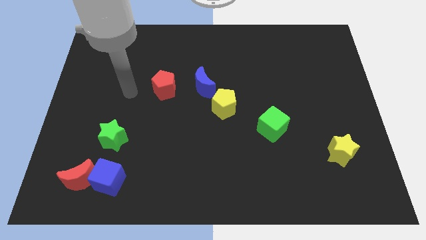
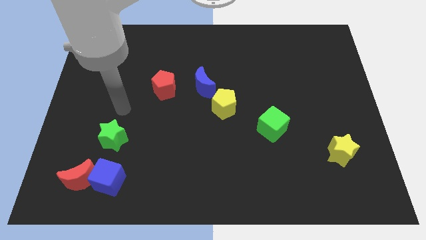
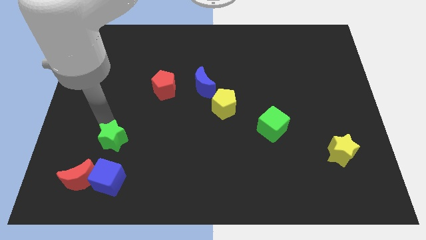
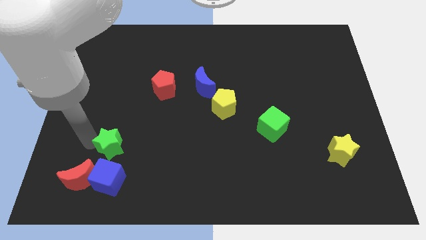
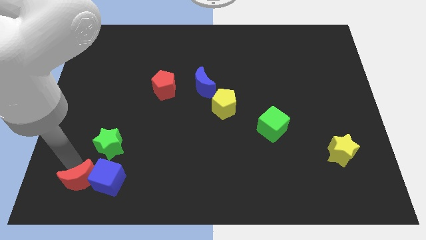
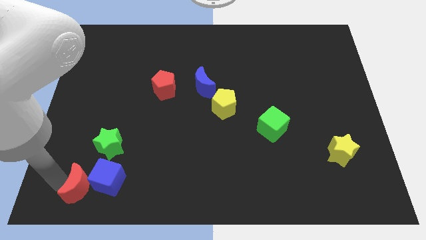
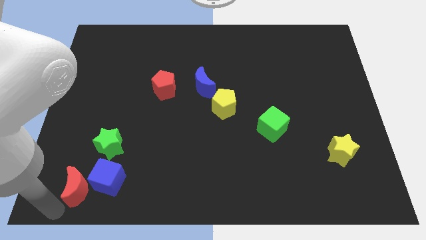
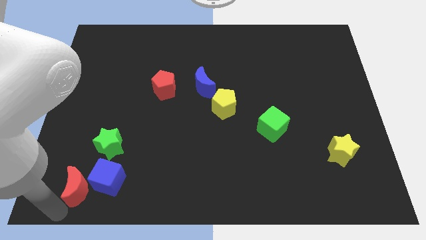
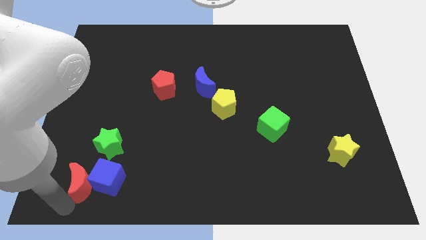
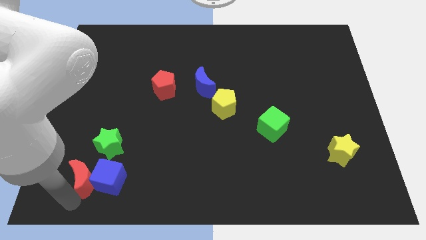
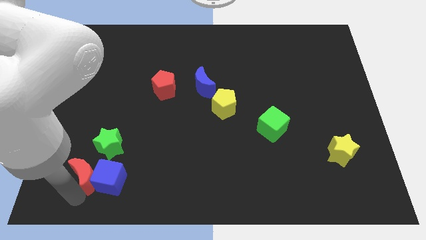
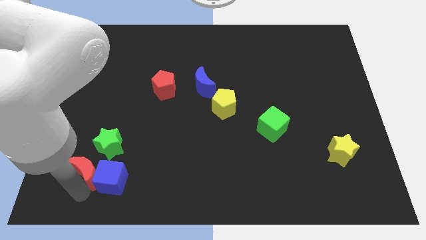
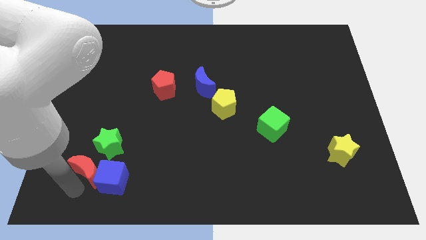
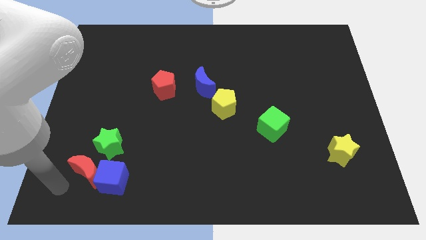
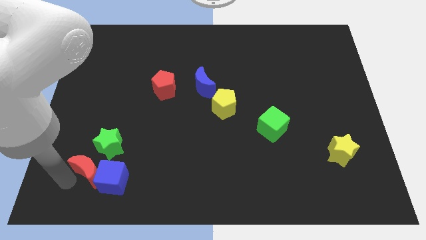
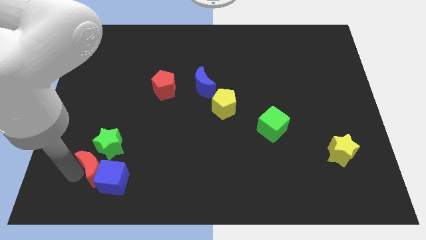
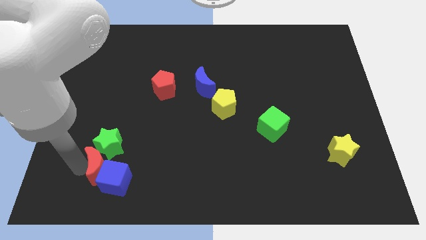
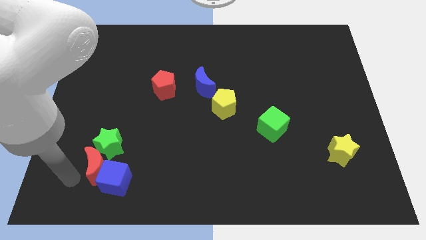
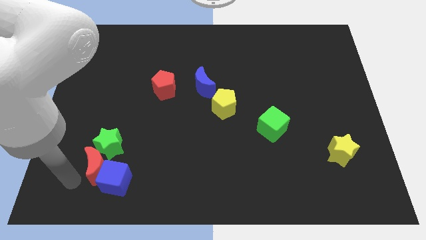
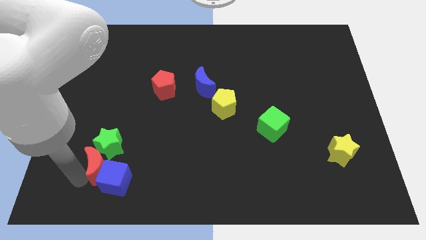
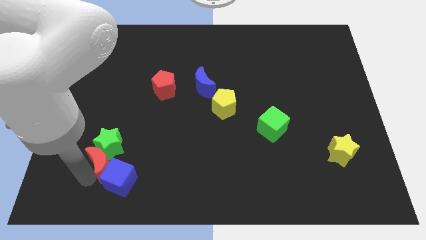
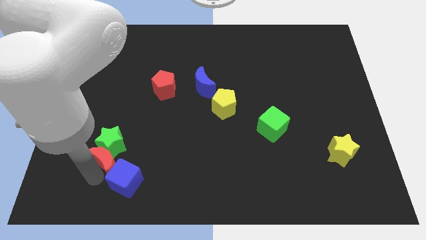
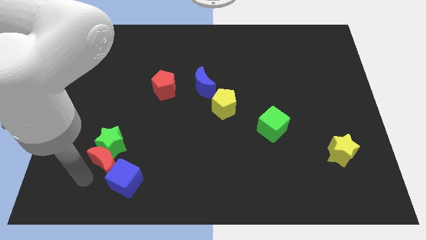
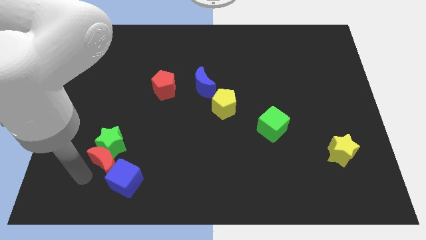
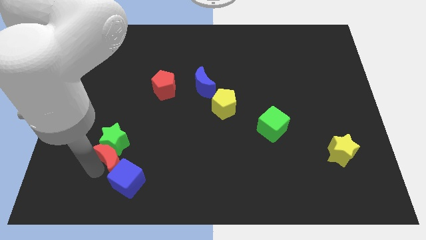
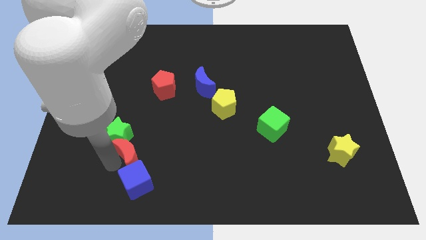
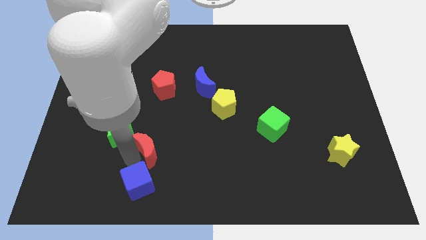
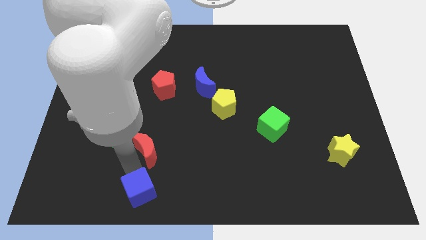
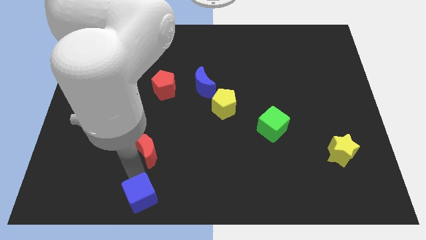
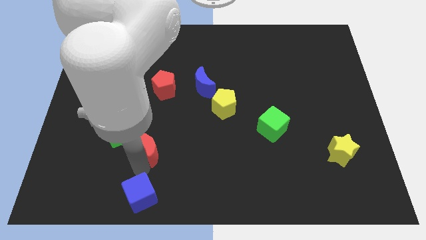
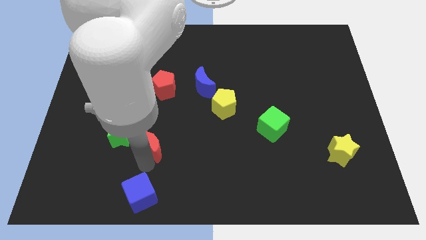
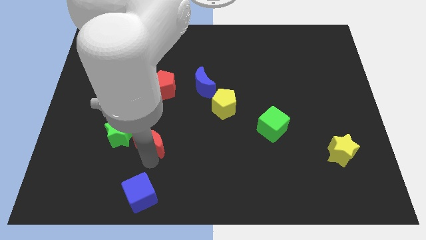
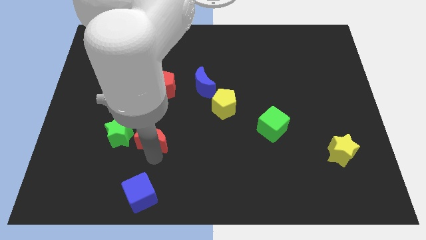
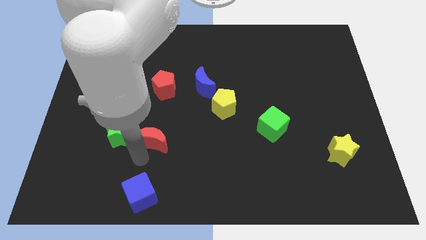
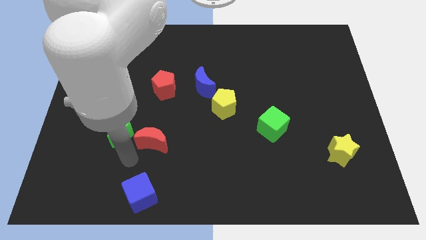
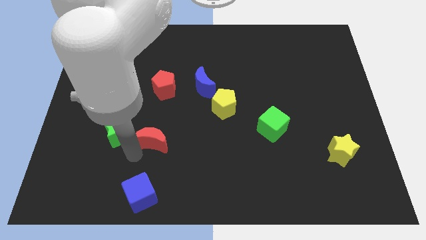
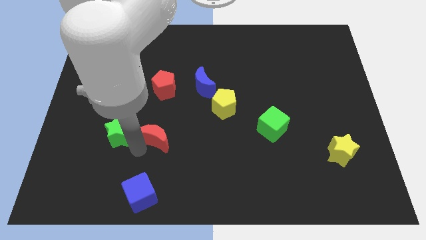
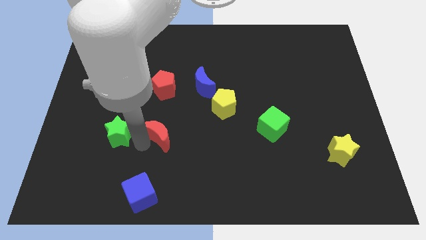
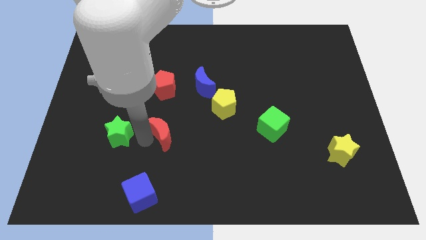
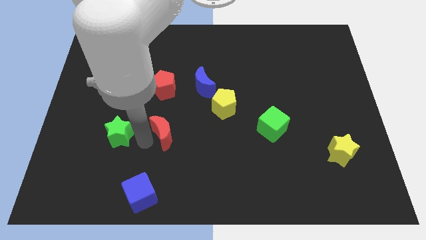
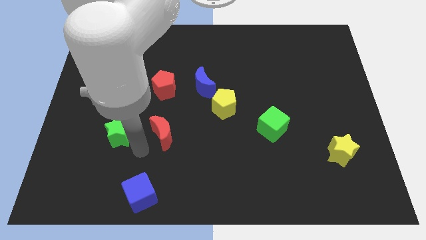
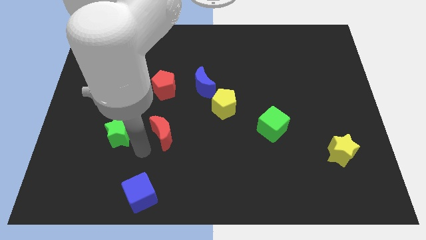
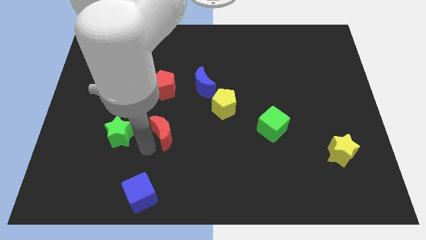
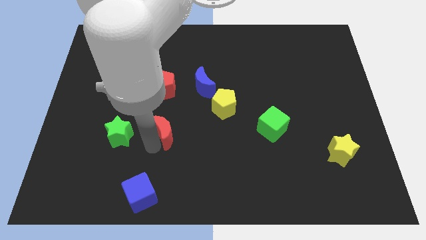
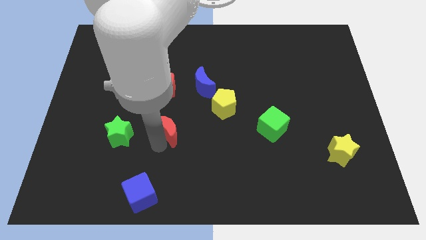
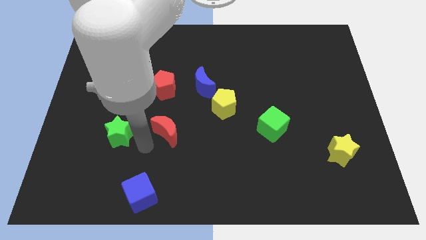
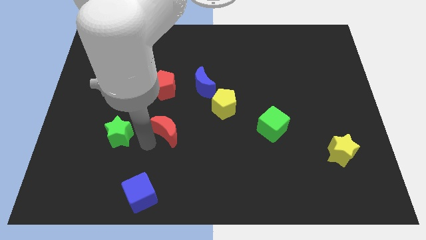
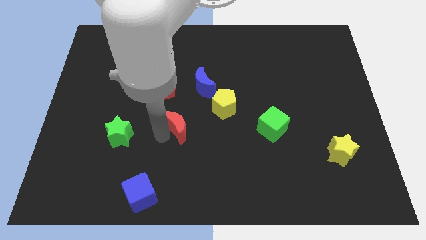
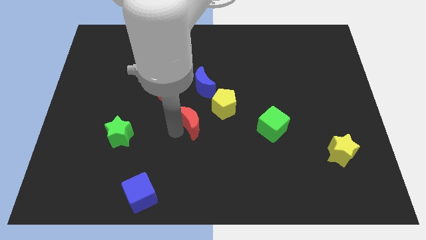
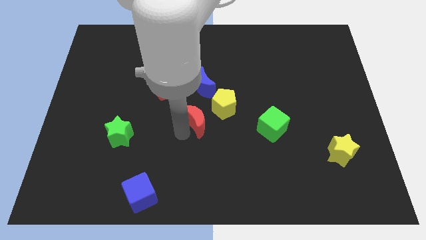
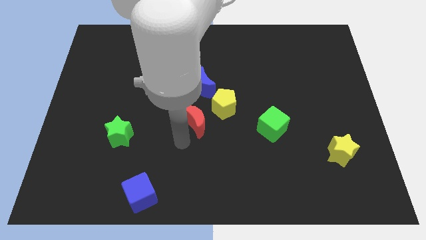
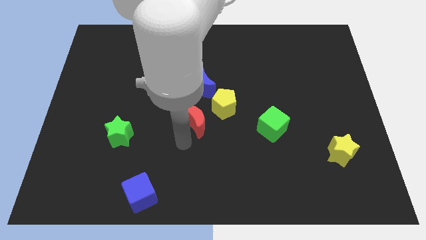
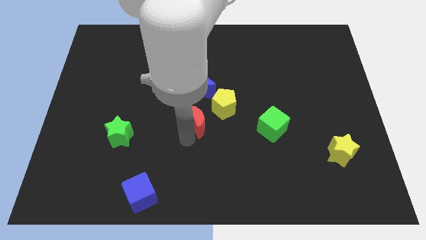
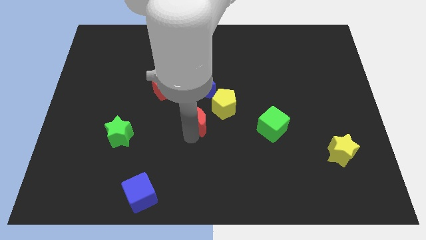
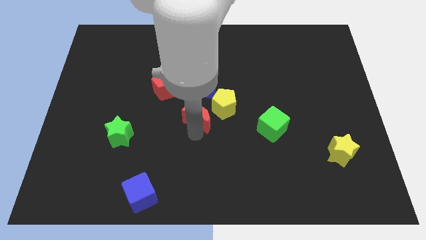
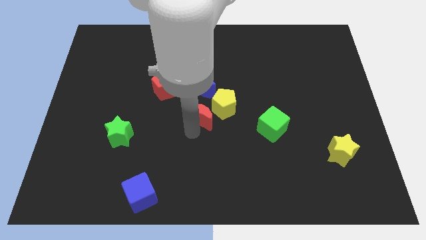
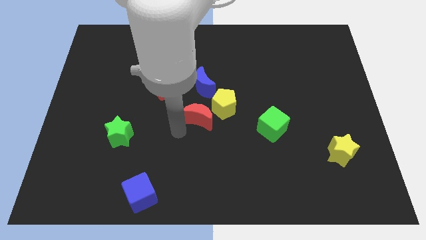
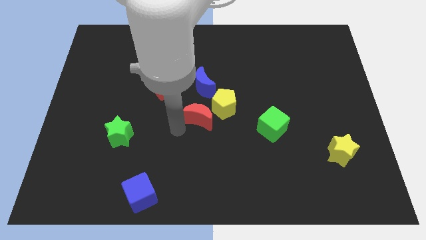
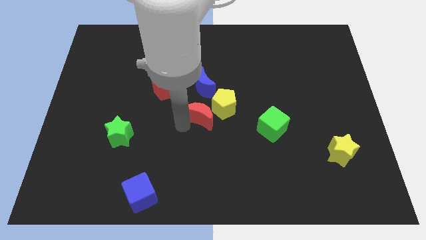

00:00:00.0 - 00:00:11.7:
push the red moon next to the yellow pentagon

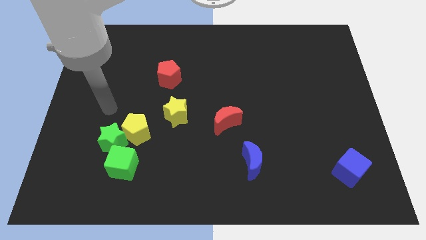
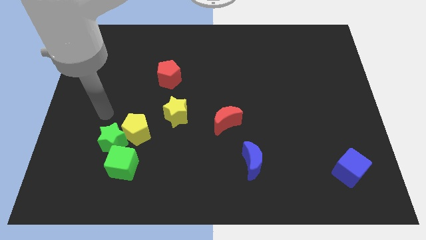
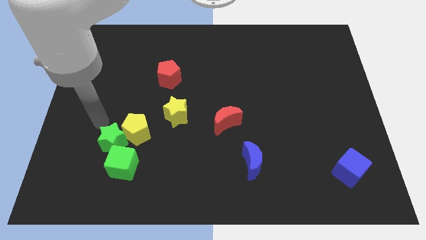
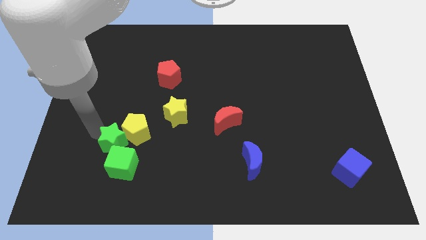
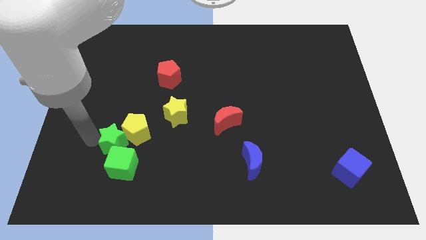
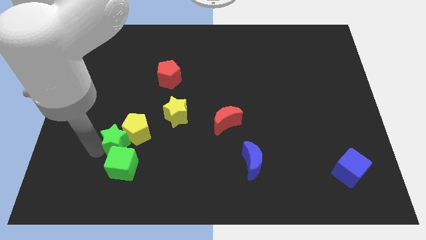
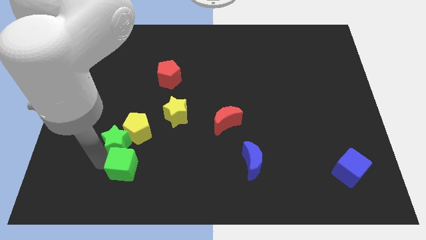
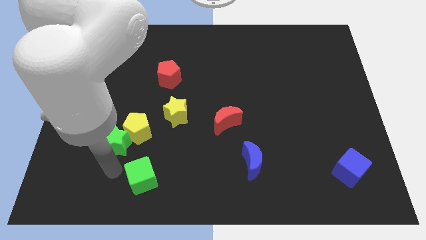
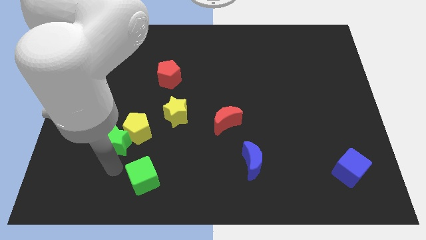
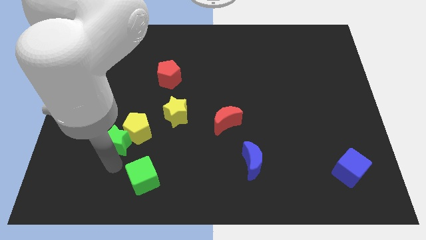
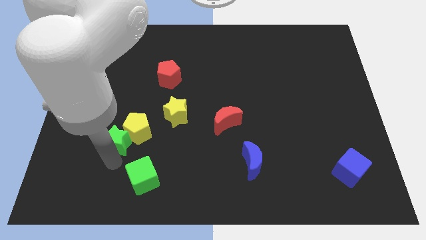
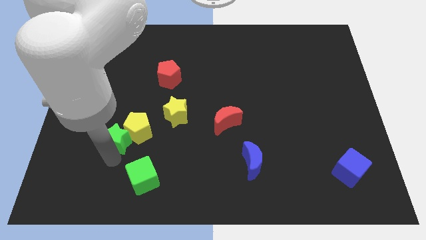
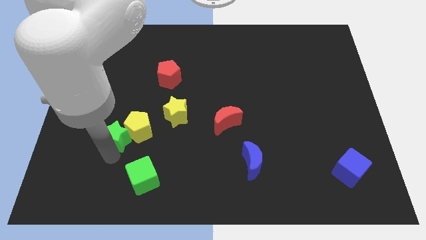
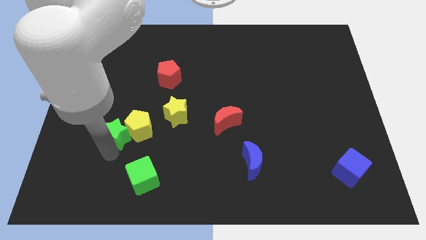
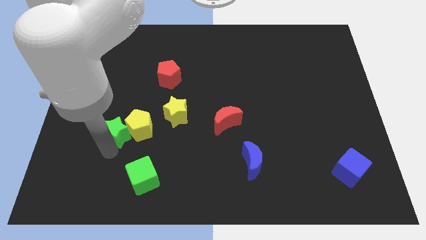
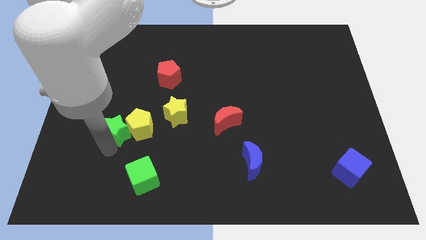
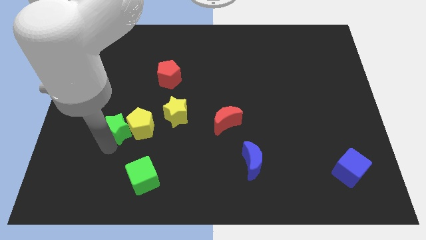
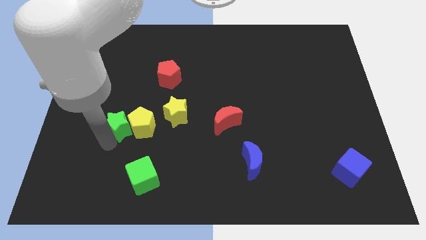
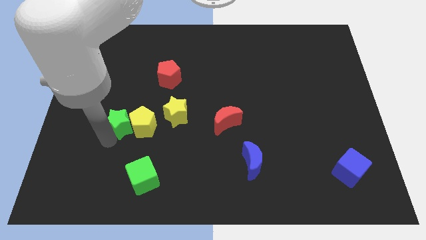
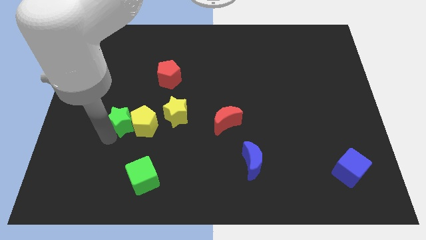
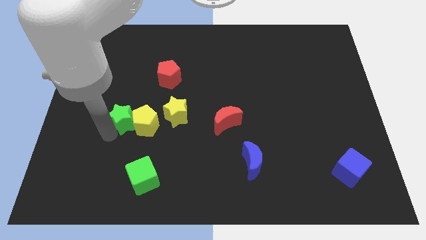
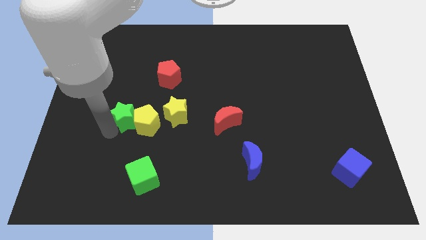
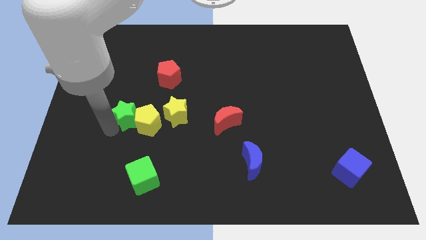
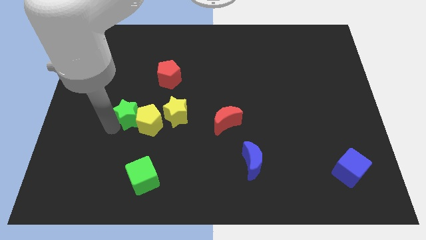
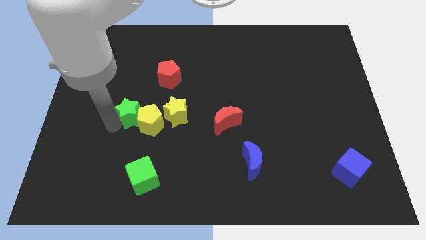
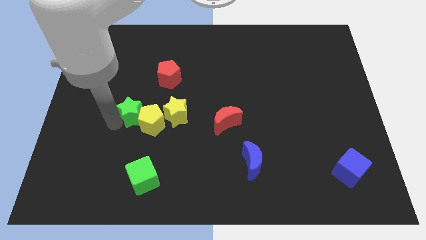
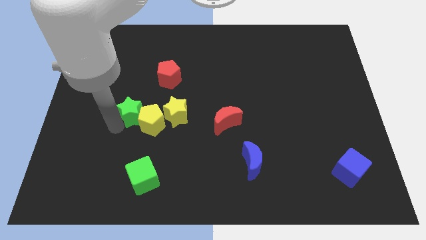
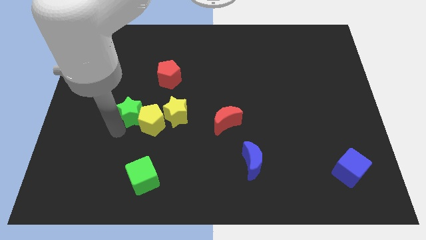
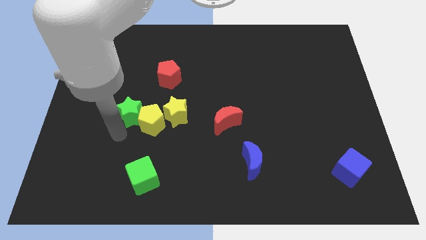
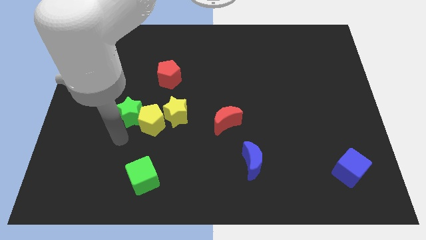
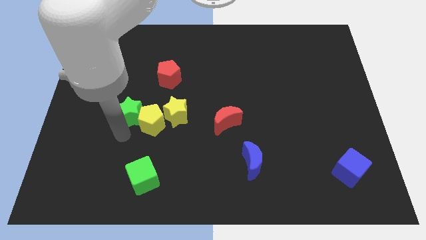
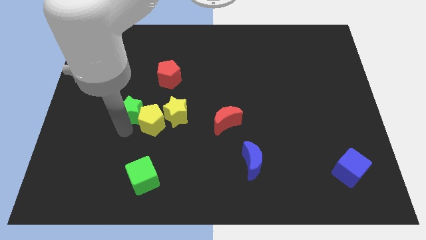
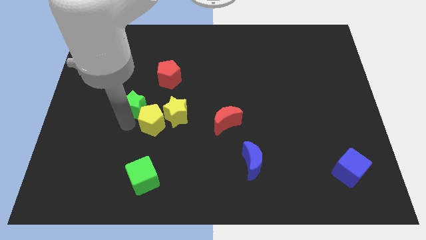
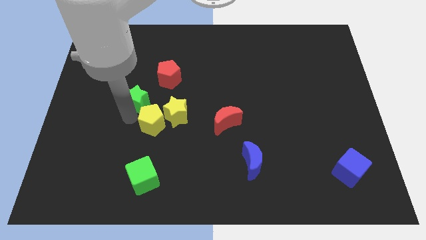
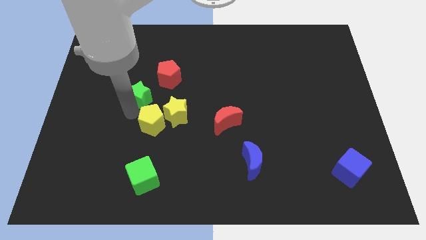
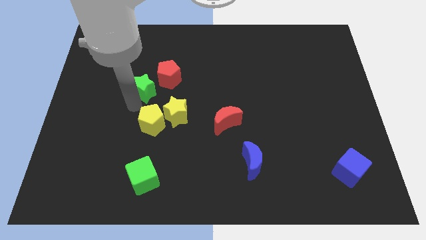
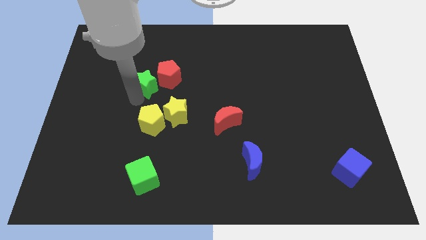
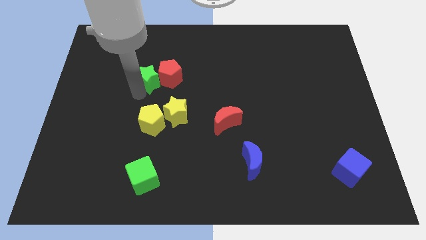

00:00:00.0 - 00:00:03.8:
put the green star next to the red pentagon
